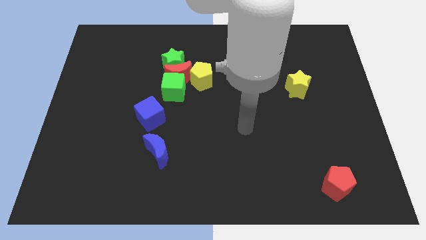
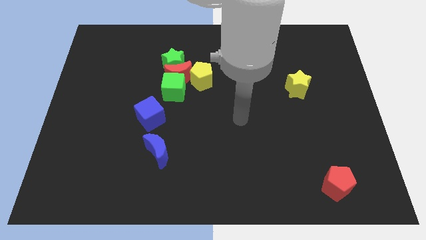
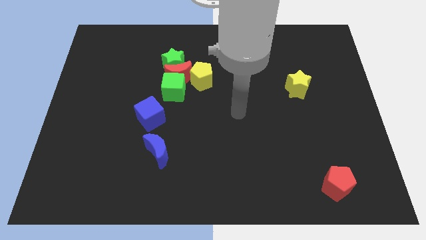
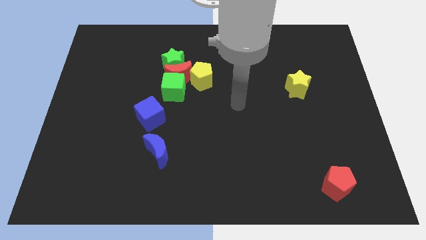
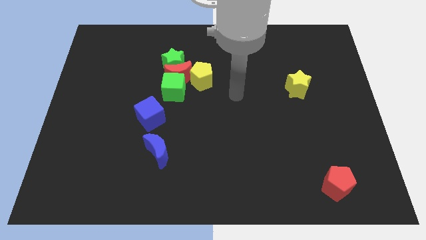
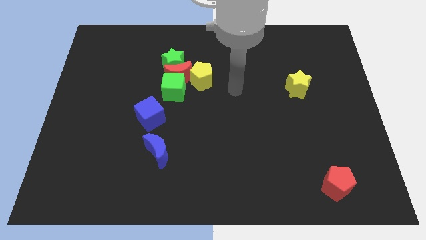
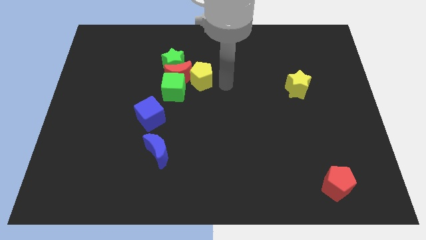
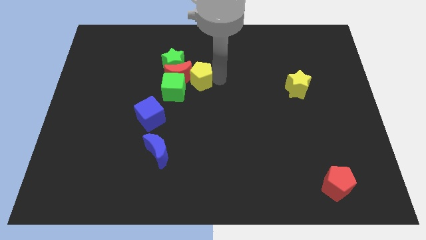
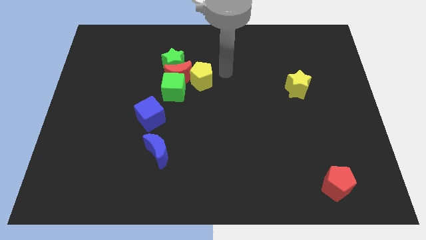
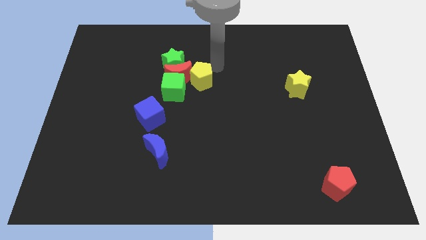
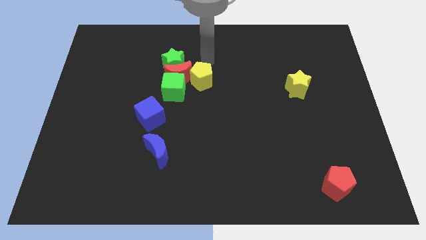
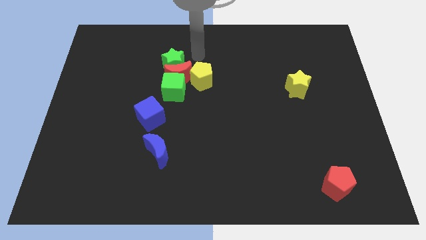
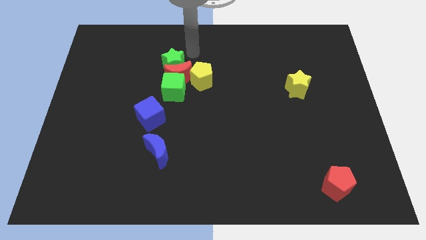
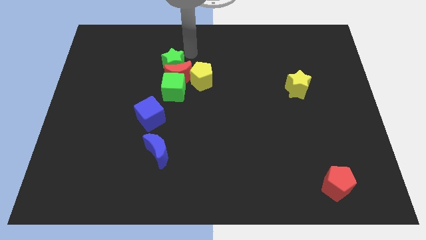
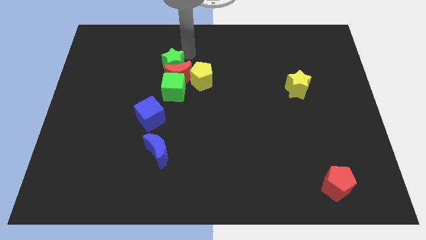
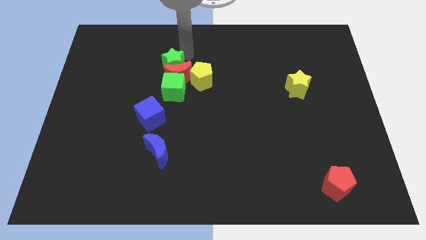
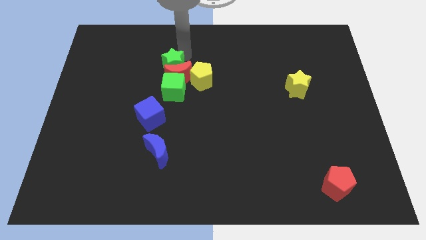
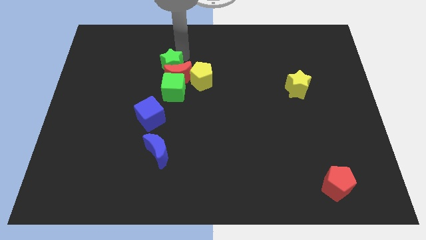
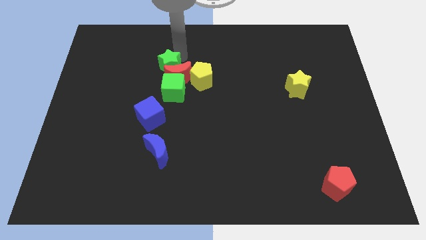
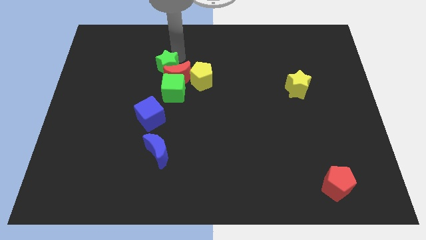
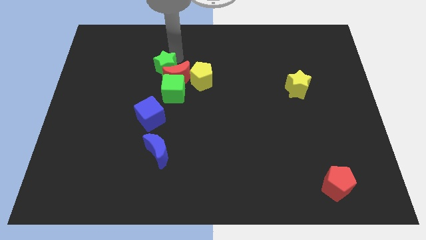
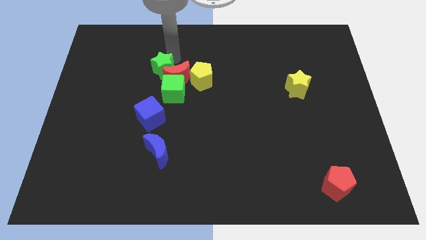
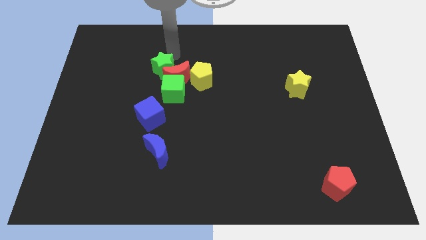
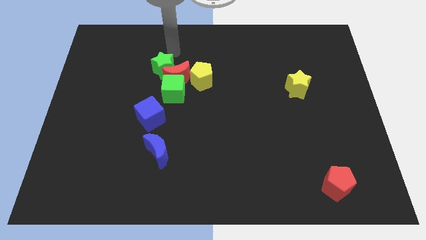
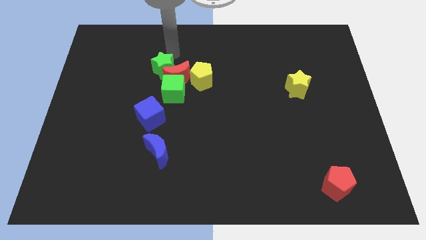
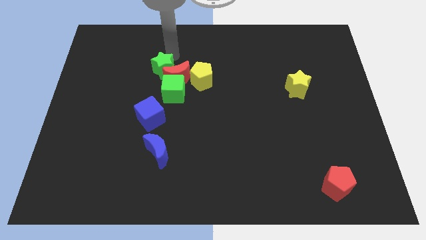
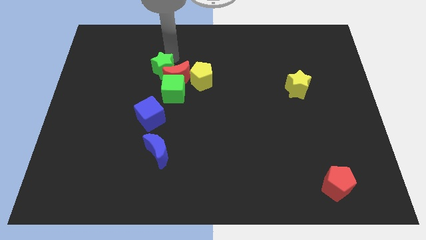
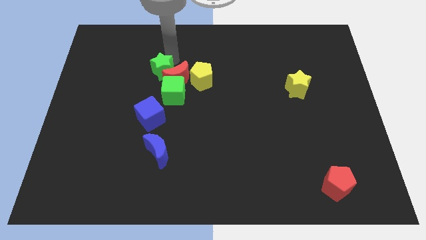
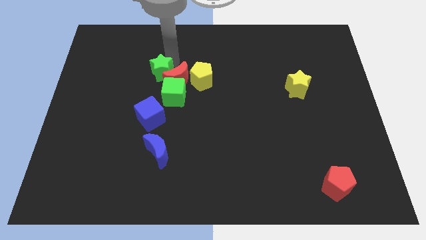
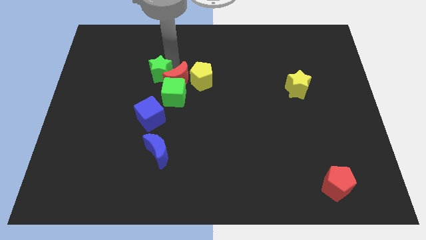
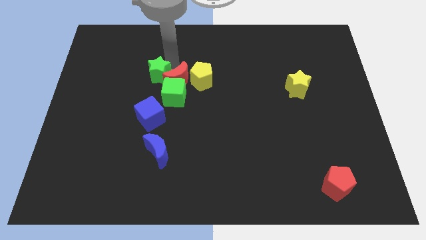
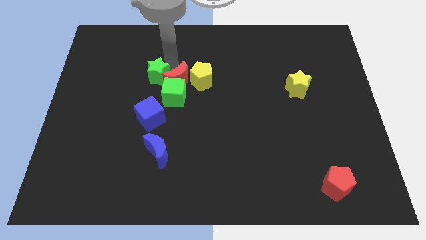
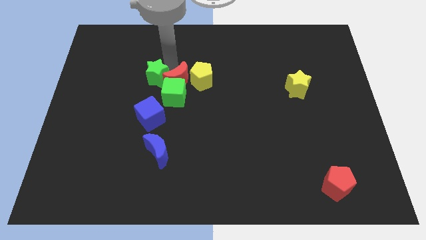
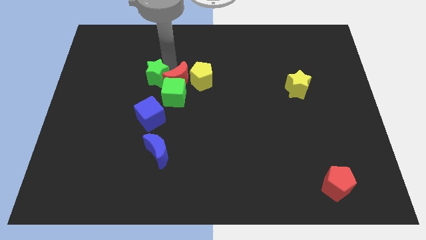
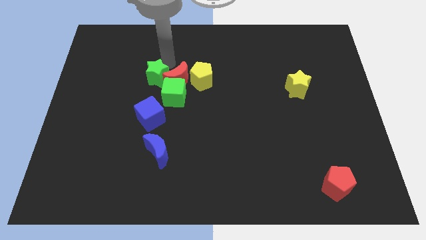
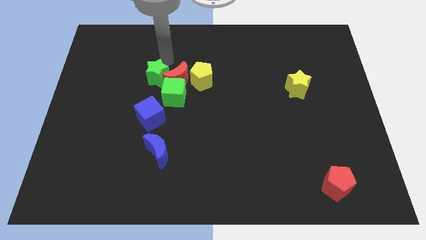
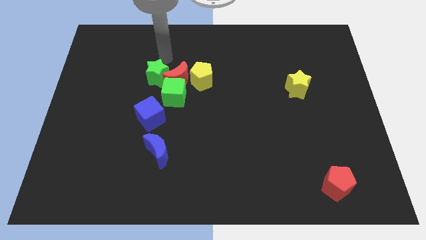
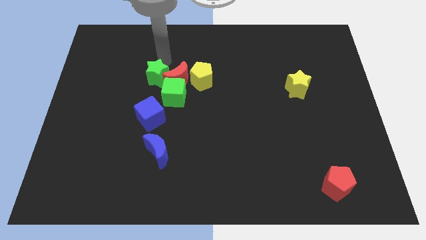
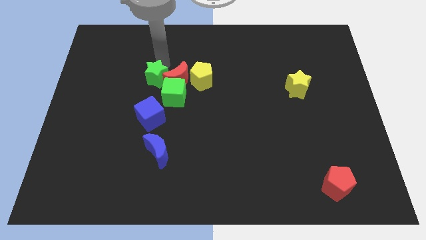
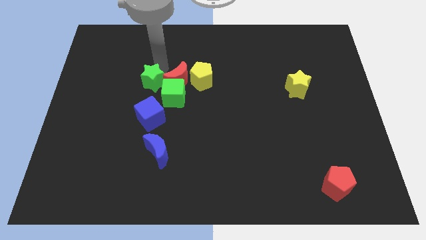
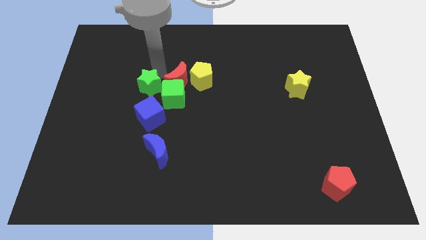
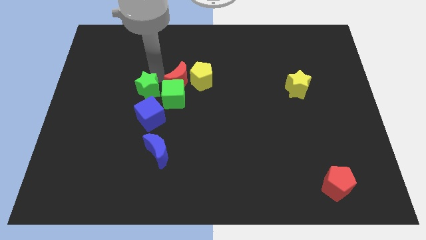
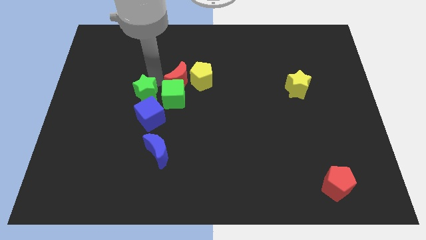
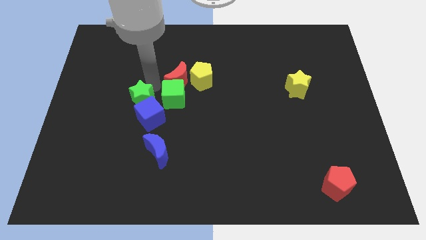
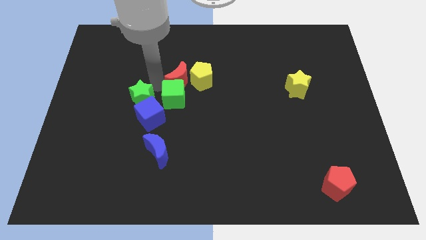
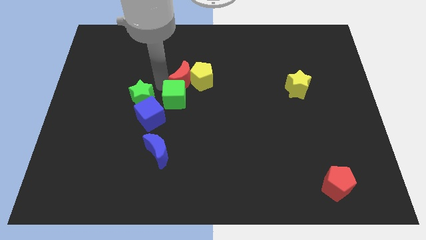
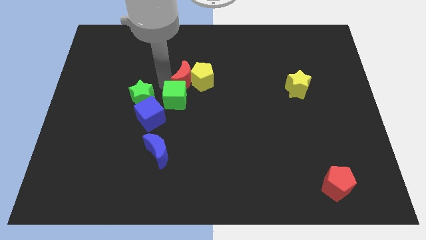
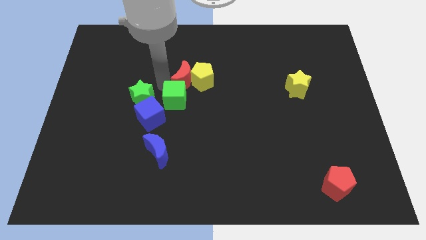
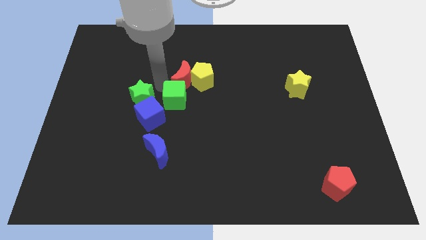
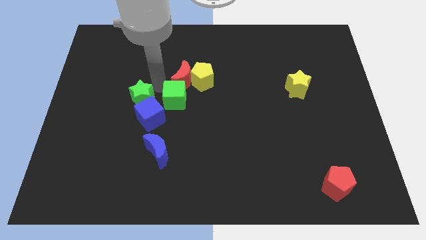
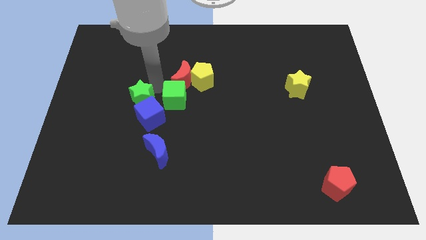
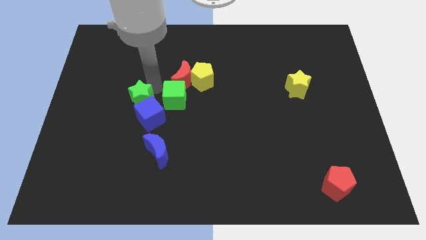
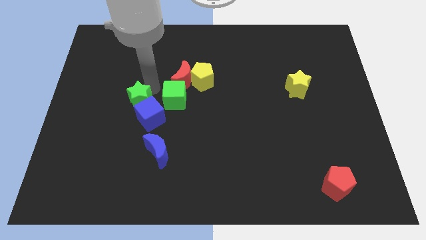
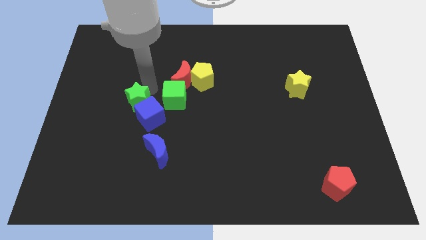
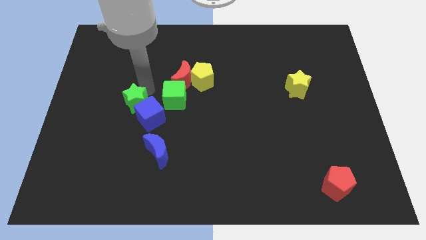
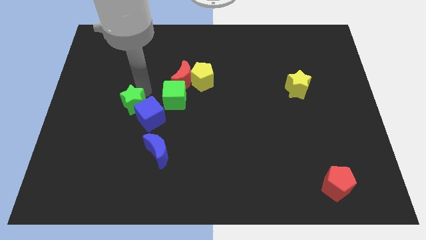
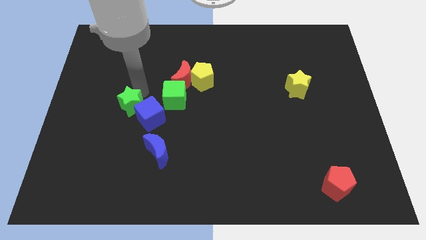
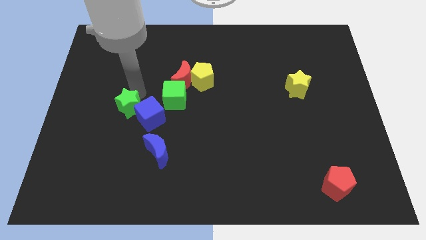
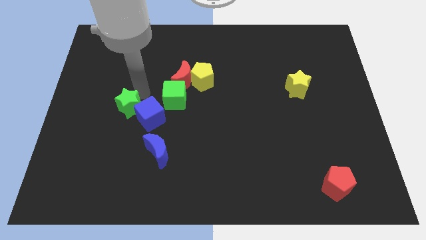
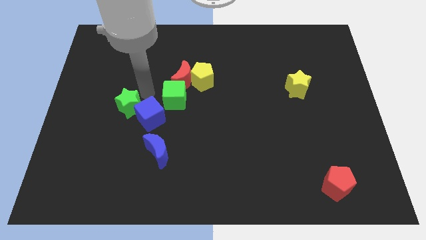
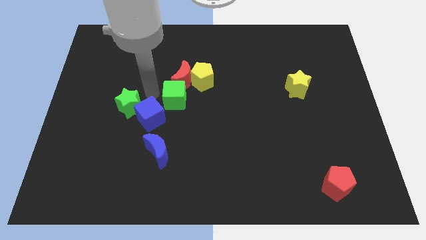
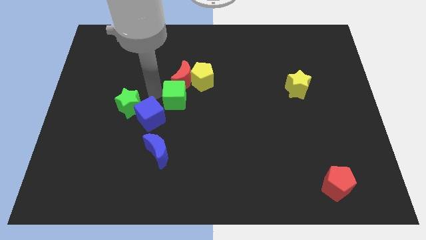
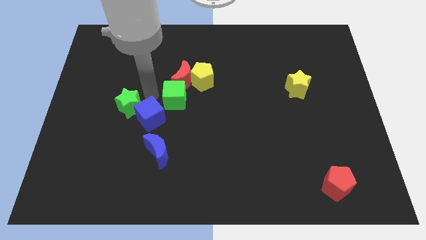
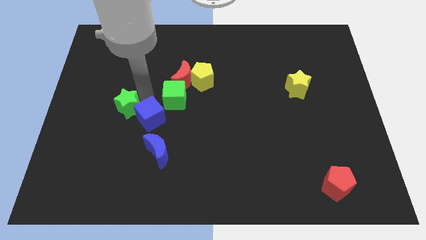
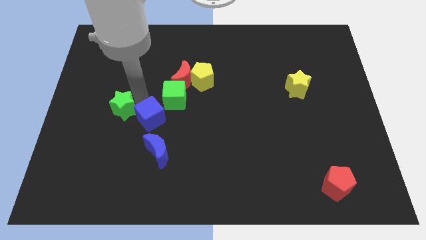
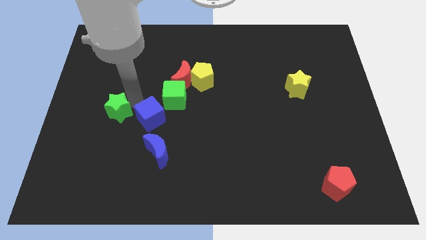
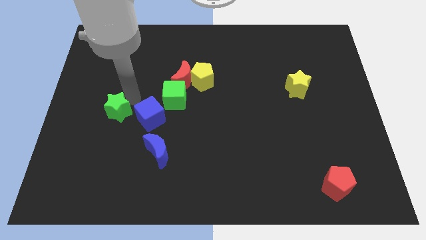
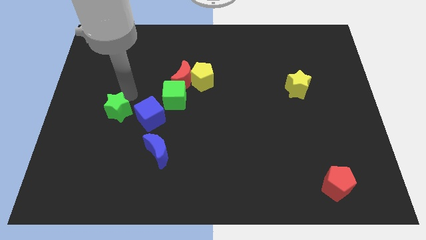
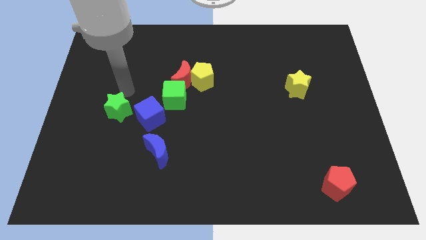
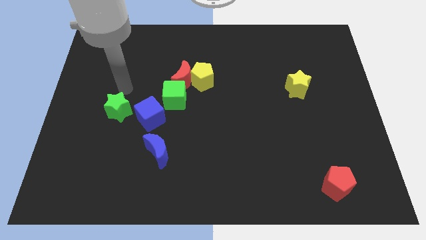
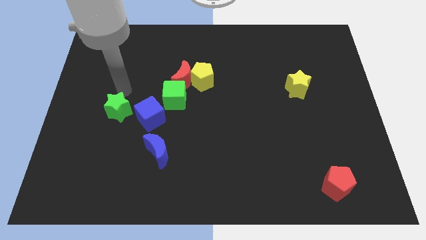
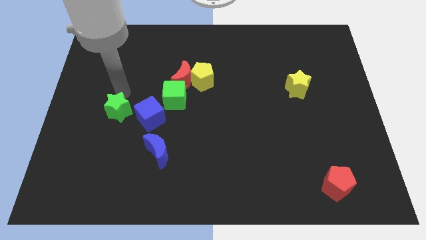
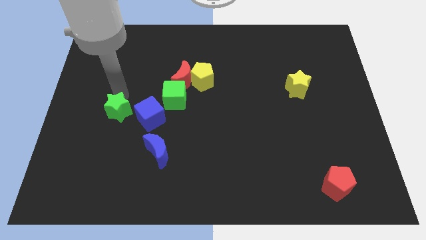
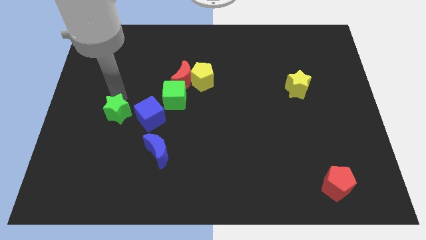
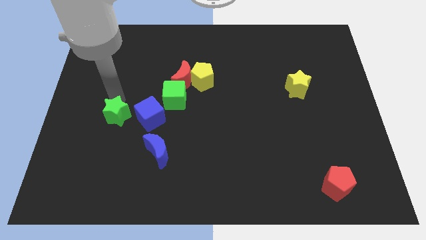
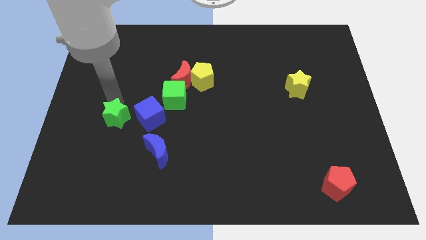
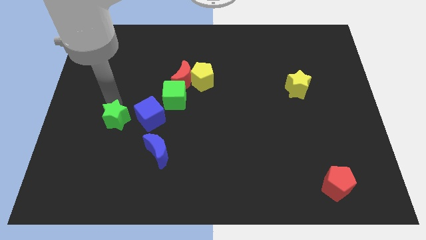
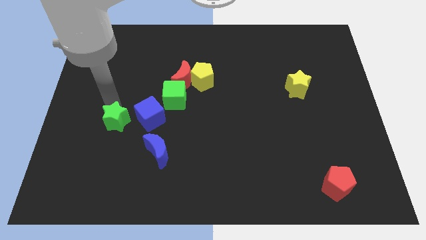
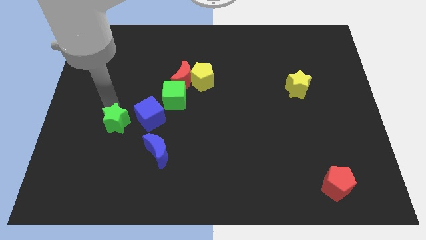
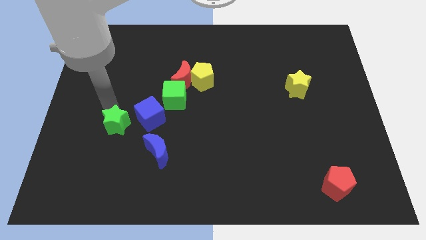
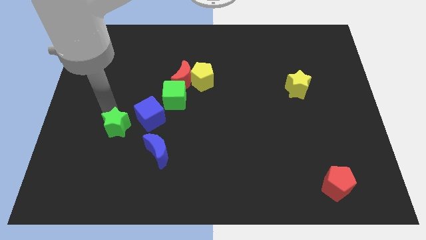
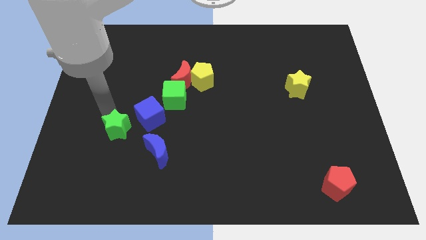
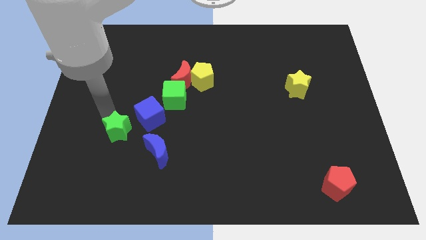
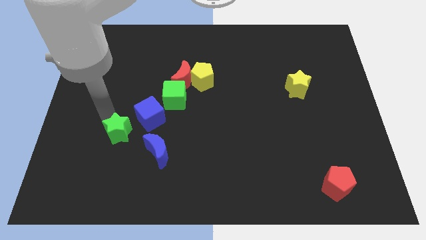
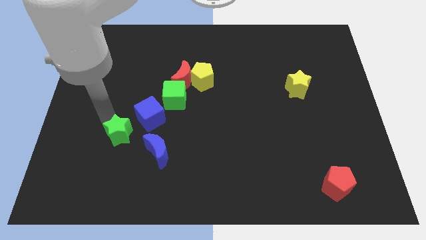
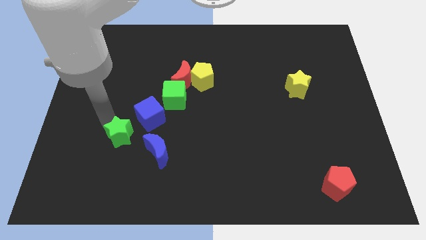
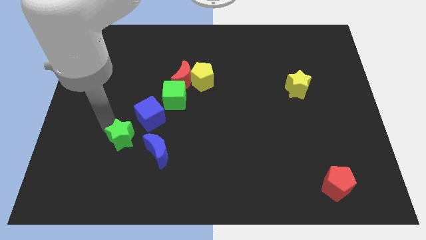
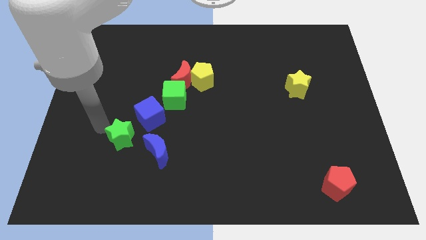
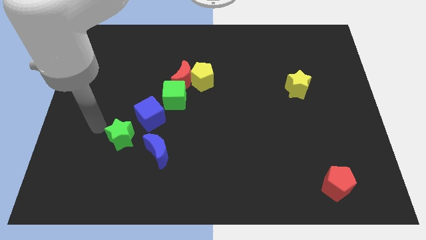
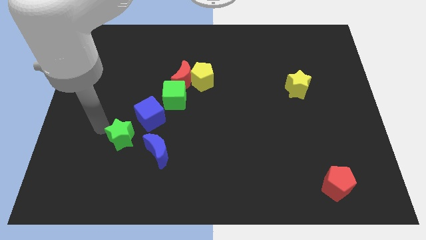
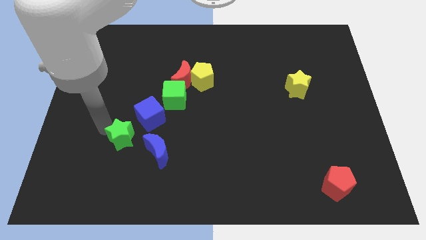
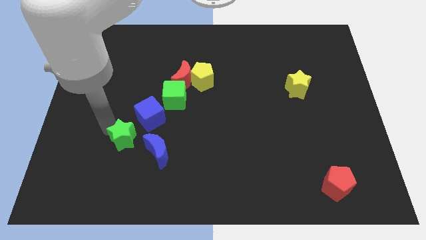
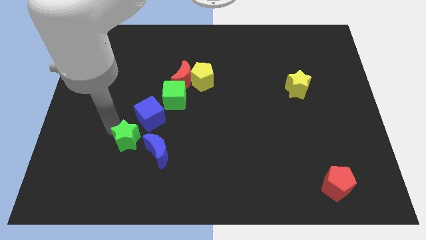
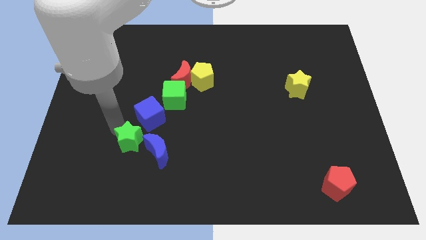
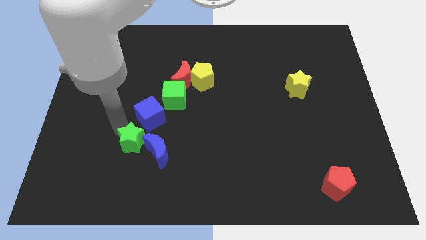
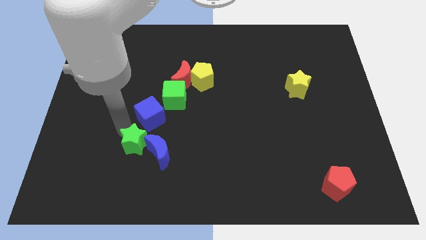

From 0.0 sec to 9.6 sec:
slide the green star towards the blue moon
